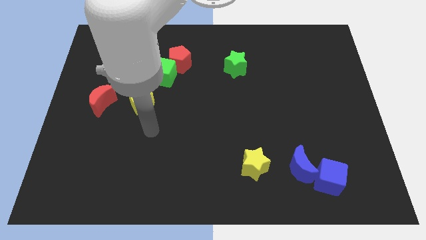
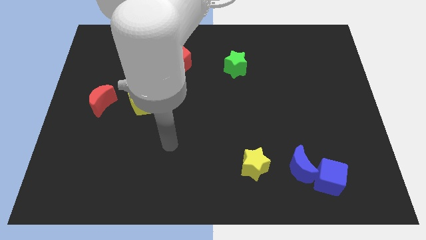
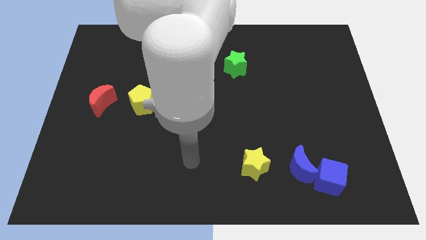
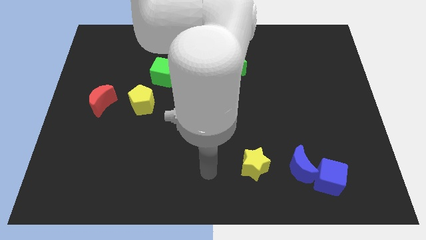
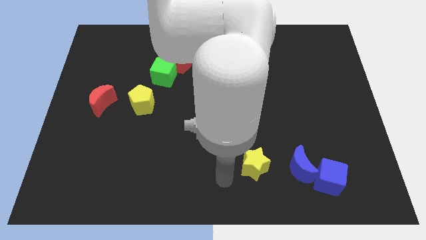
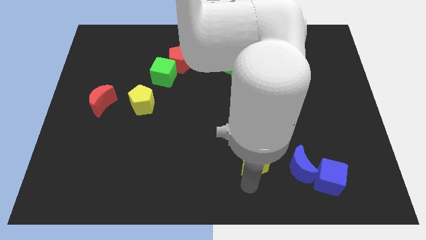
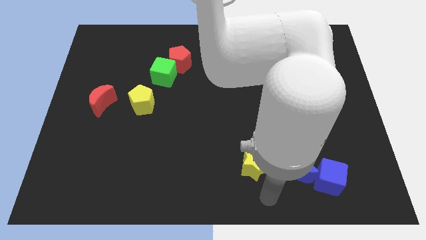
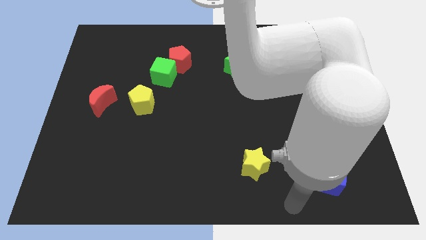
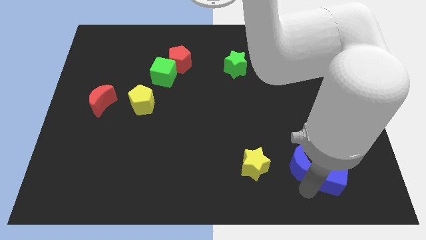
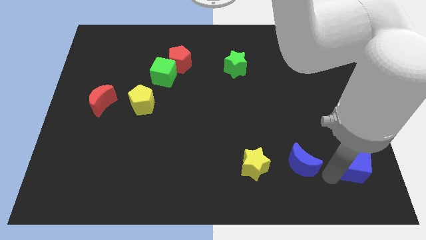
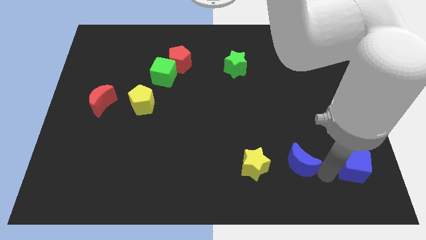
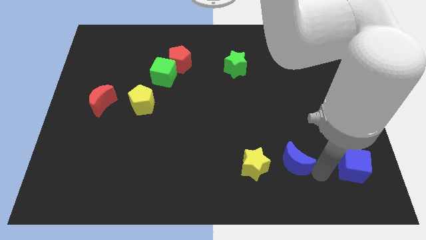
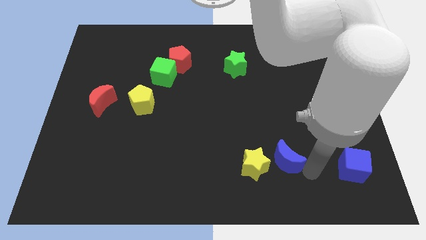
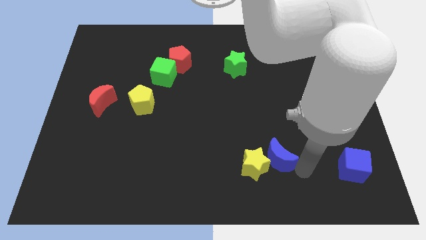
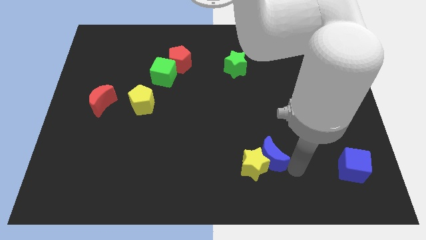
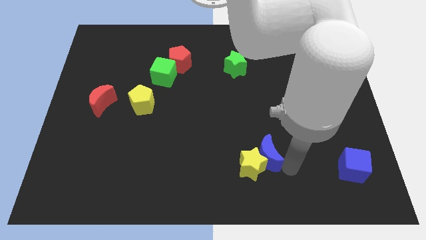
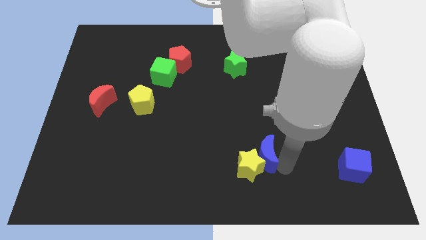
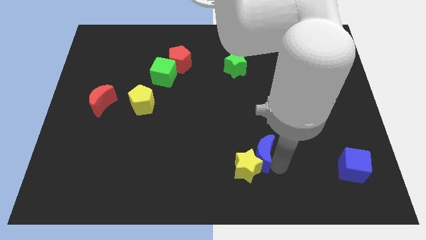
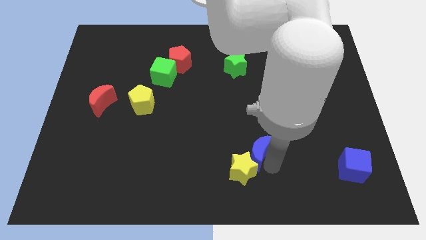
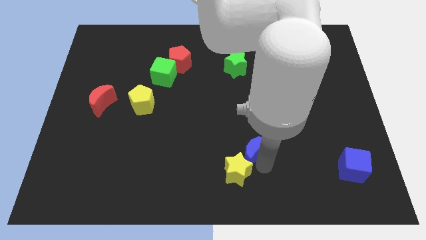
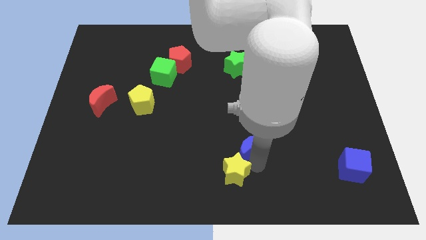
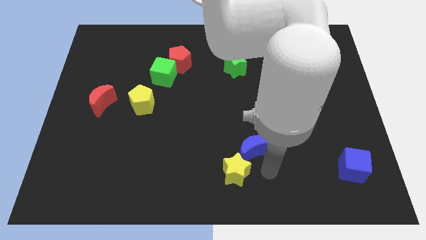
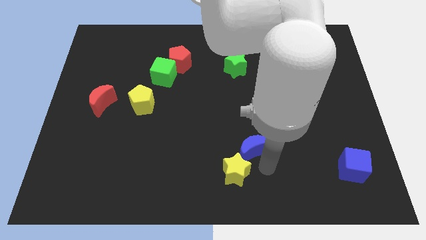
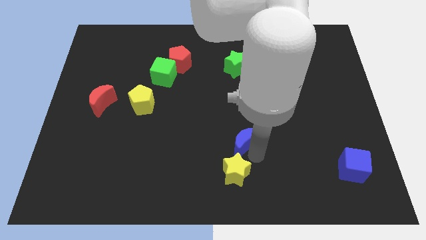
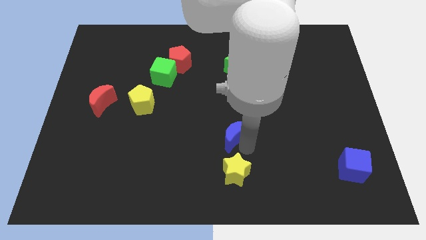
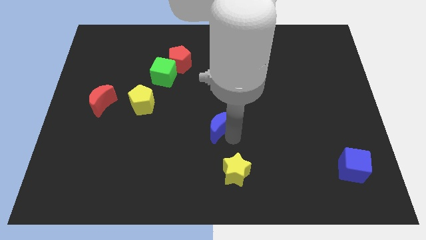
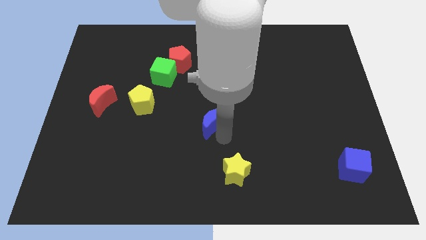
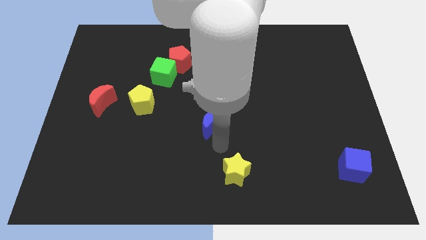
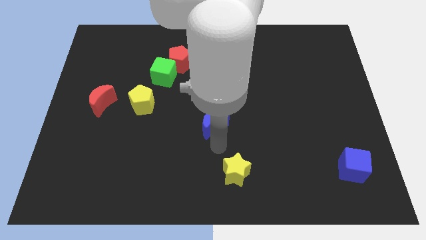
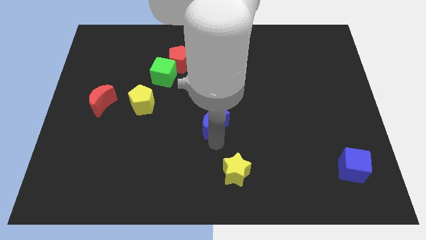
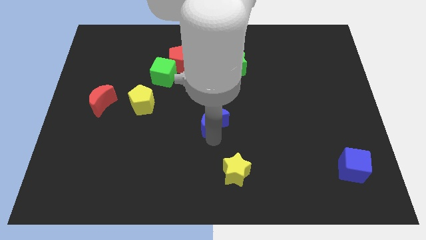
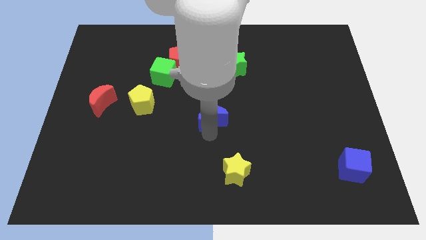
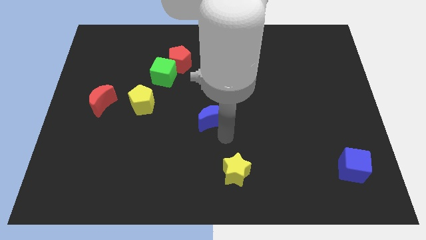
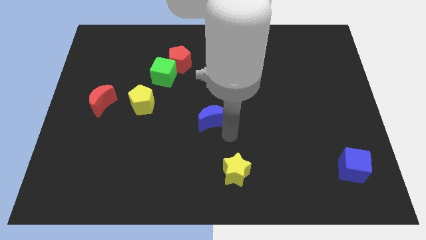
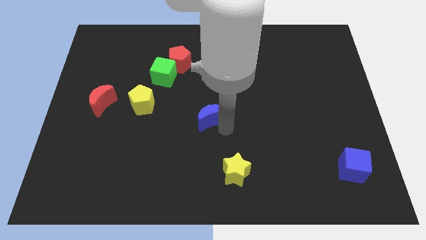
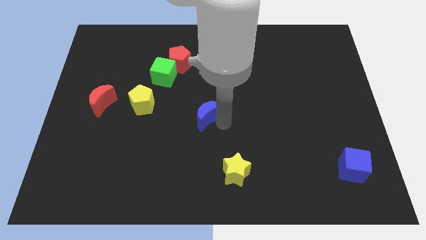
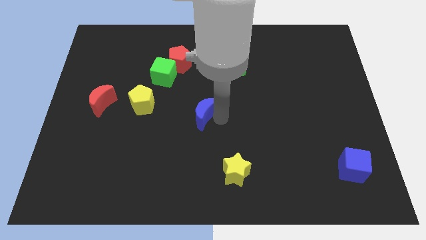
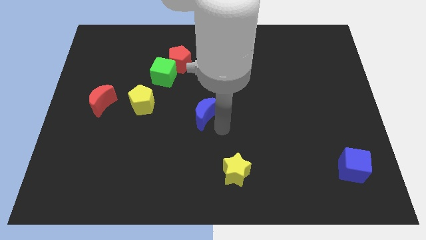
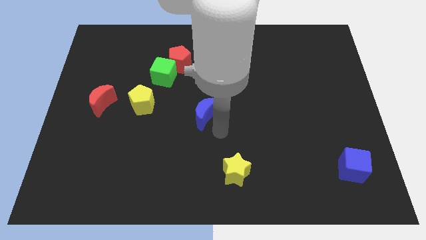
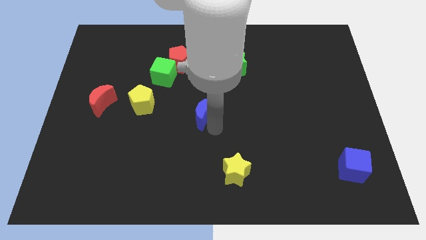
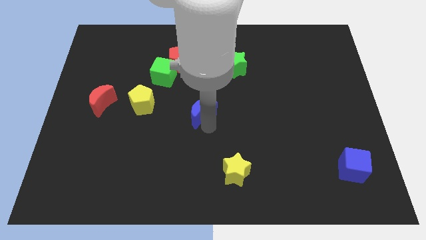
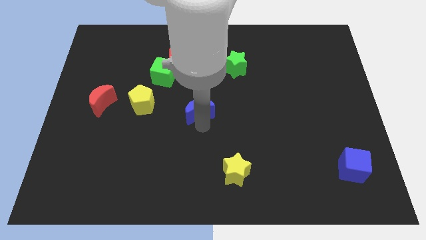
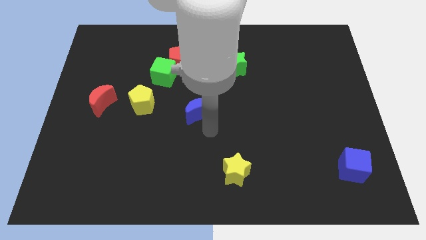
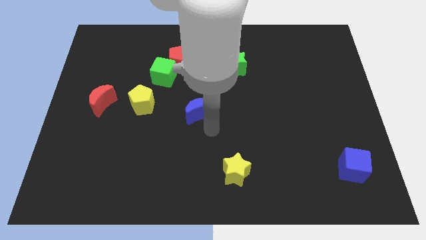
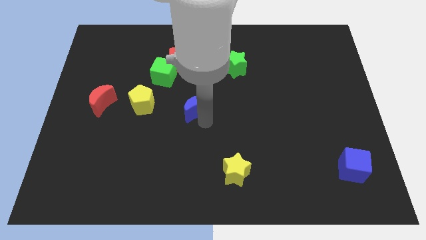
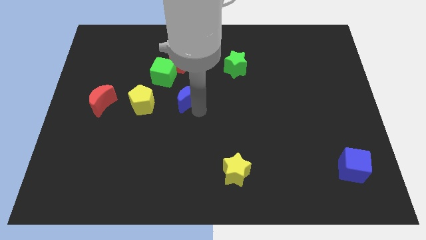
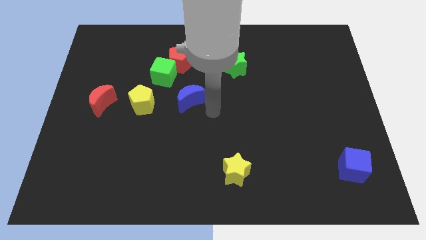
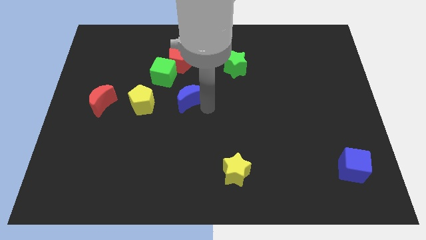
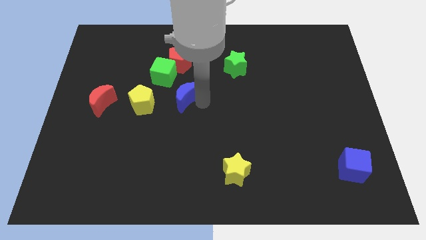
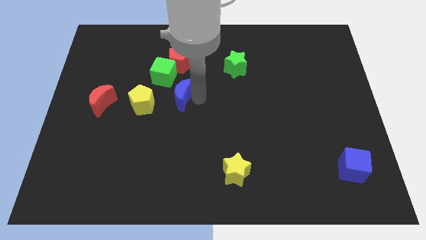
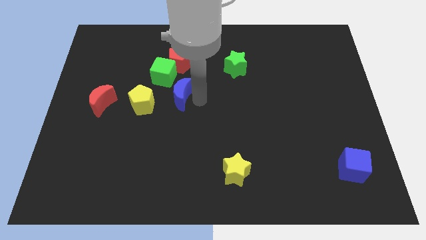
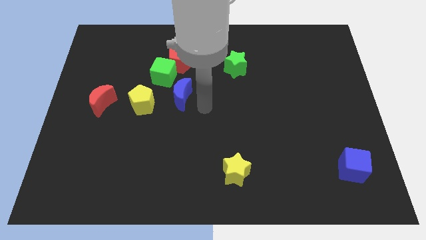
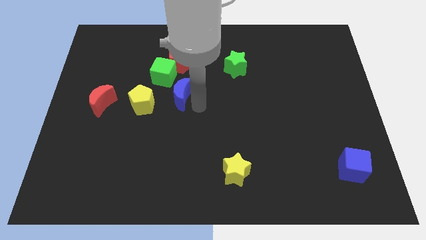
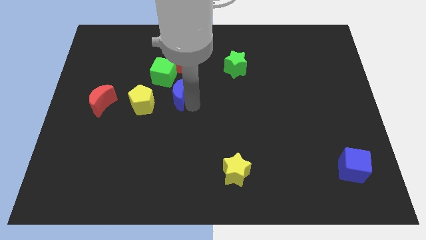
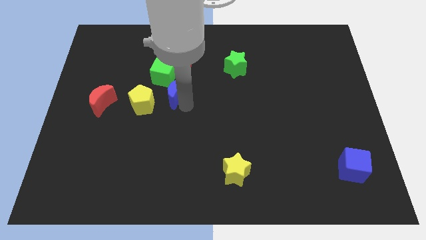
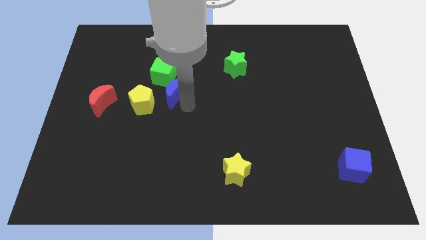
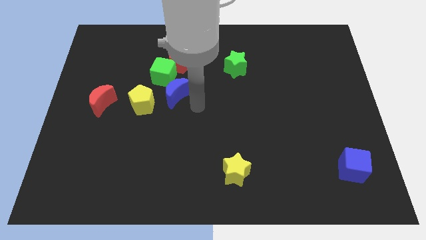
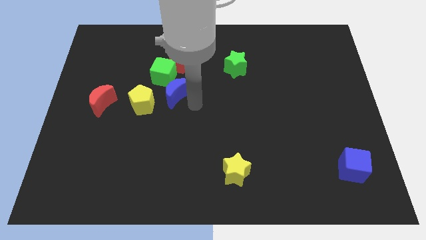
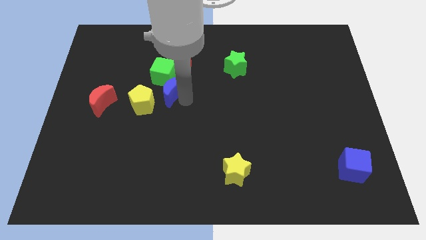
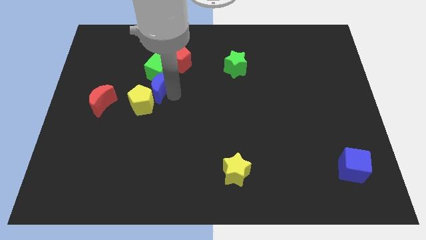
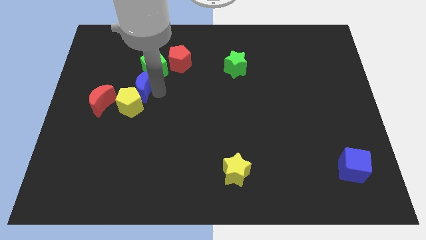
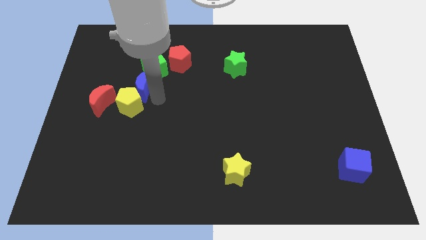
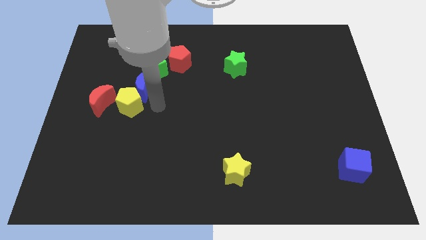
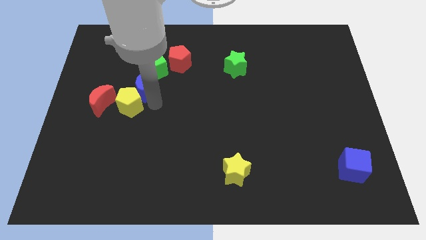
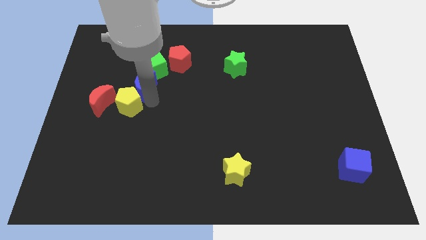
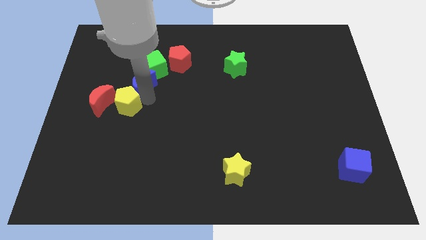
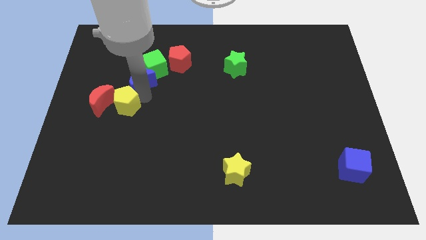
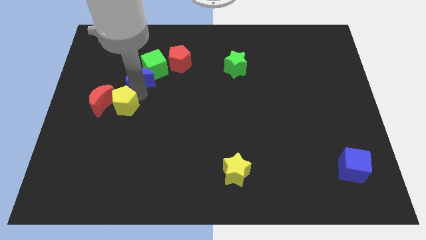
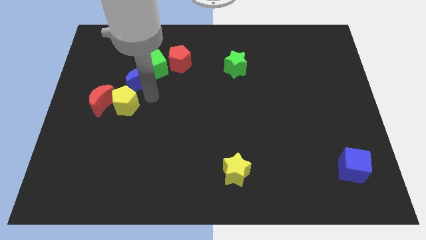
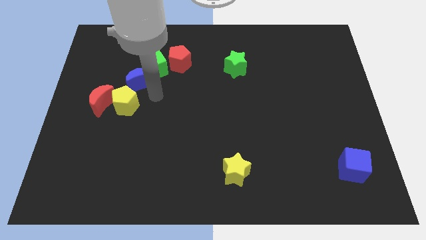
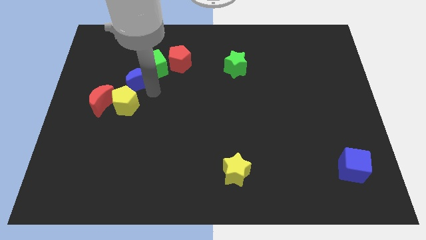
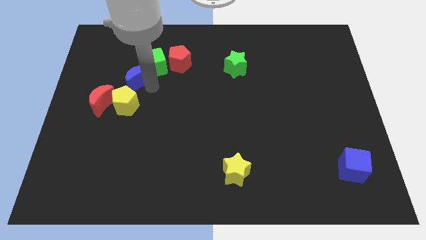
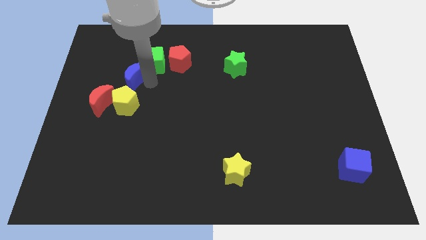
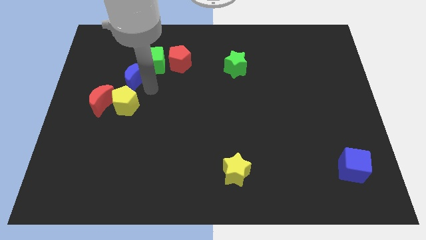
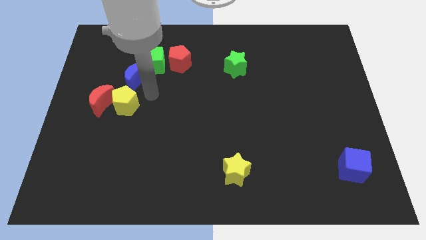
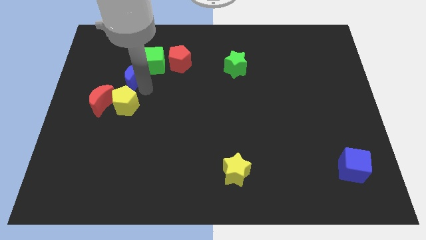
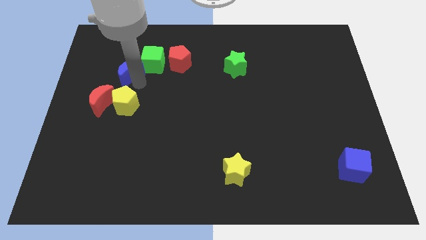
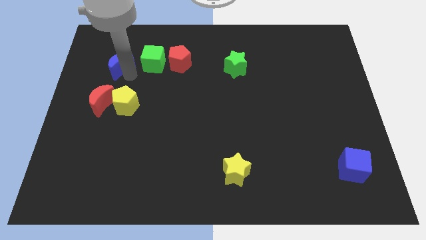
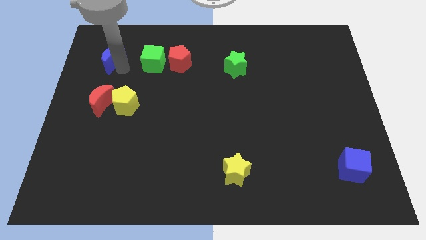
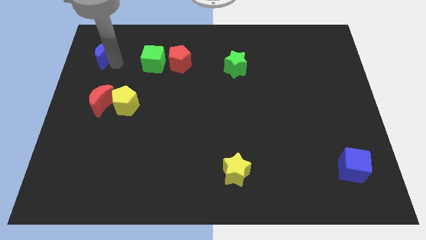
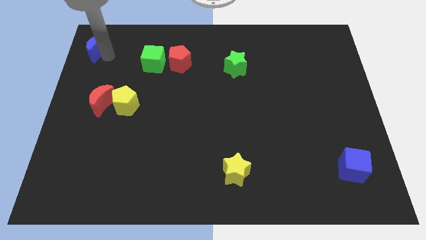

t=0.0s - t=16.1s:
put the blue moon to the top left
